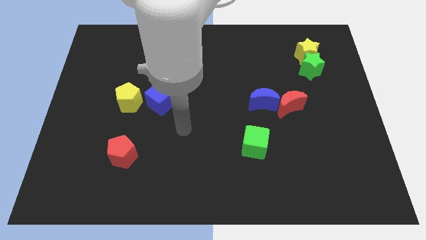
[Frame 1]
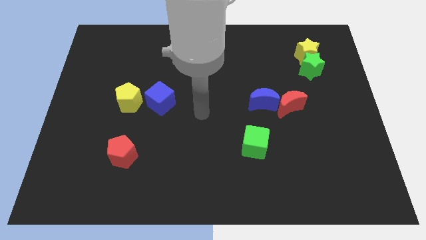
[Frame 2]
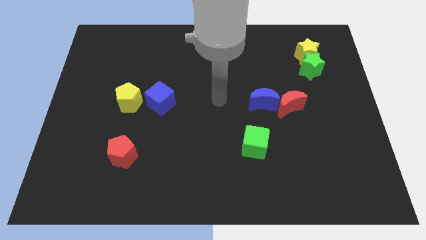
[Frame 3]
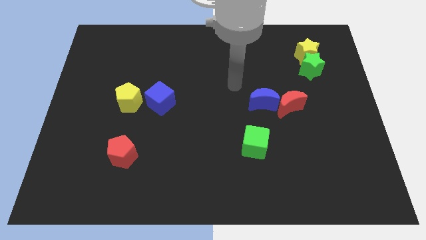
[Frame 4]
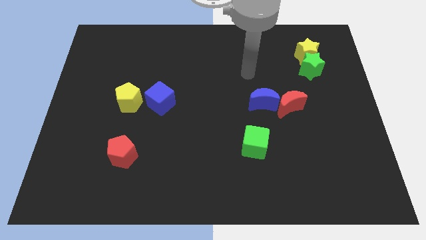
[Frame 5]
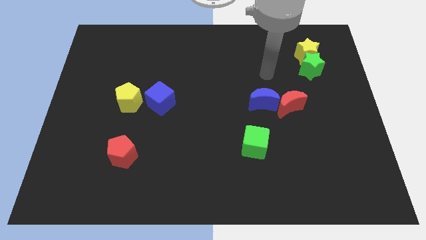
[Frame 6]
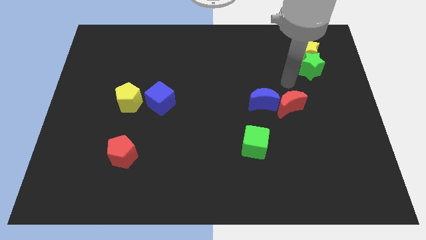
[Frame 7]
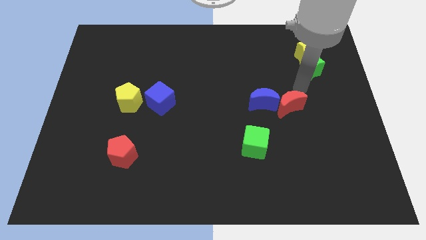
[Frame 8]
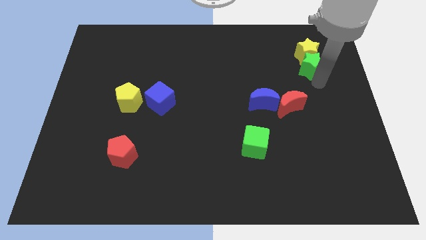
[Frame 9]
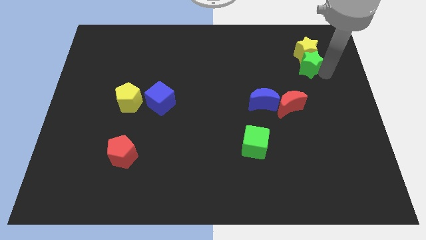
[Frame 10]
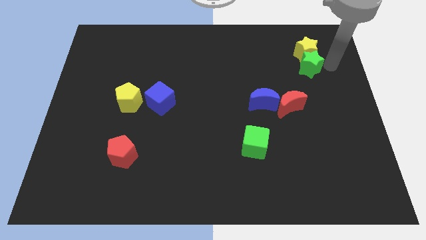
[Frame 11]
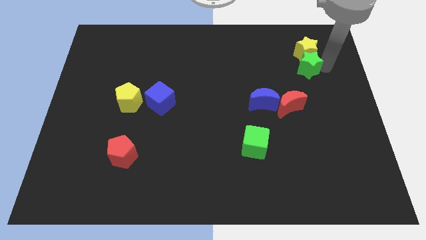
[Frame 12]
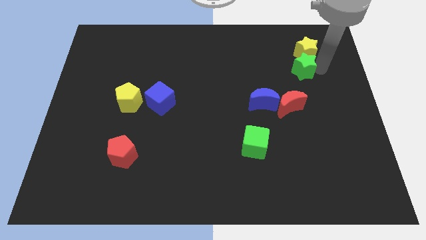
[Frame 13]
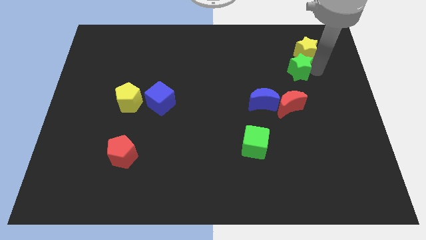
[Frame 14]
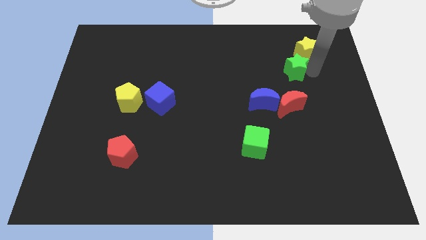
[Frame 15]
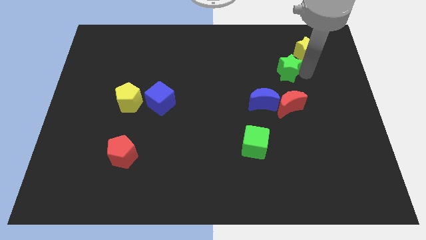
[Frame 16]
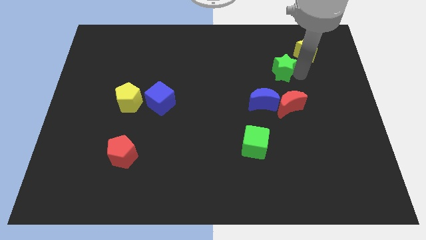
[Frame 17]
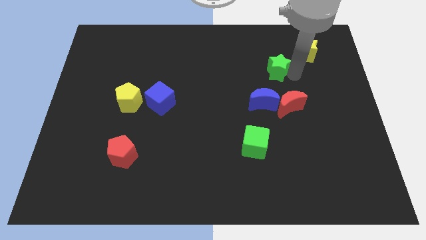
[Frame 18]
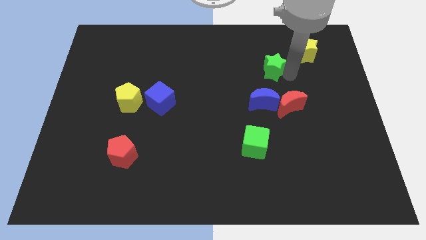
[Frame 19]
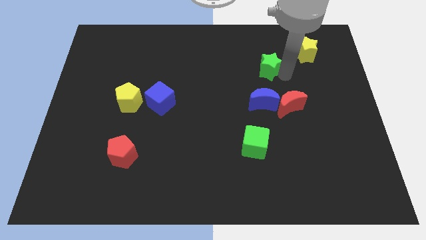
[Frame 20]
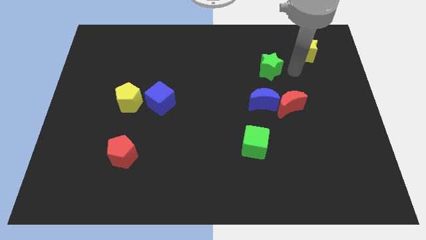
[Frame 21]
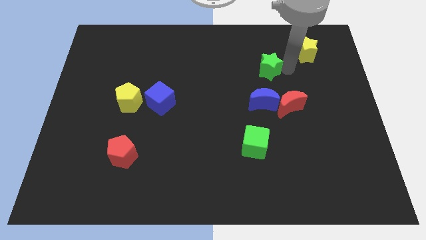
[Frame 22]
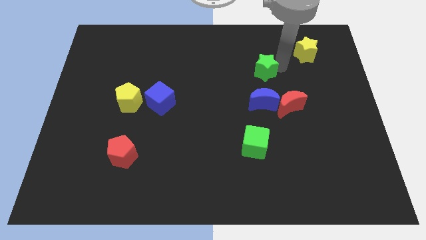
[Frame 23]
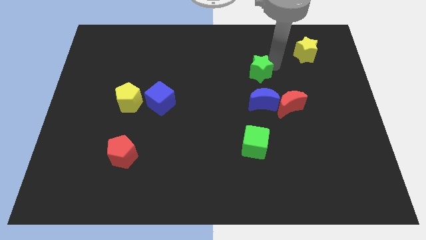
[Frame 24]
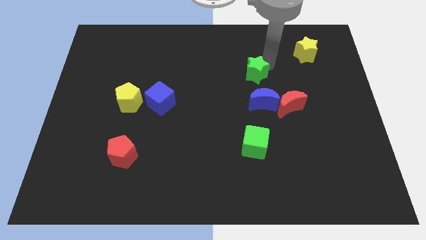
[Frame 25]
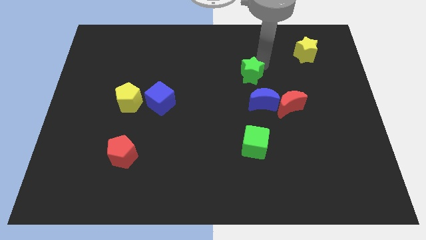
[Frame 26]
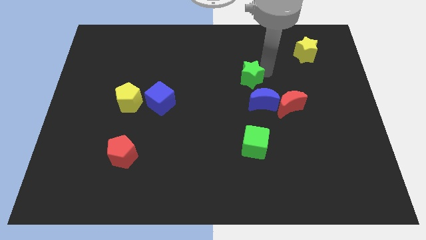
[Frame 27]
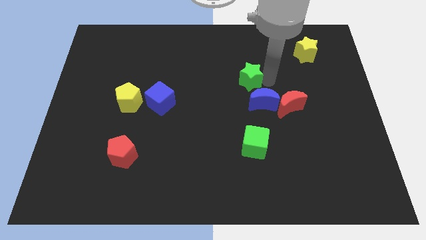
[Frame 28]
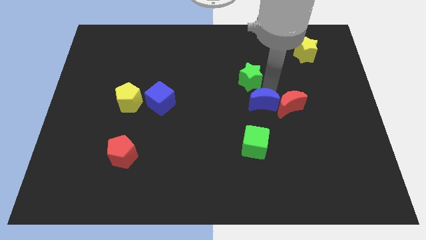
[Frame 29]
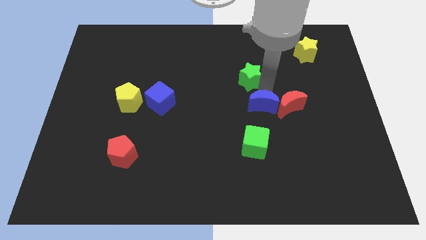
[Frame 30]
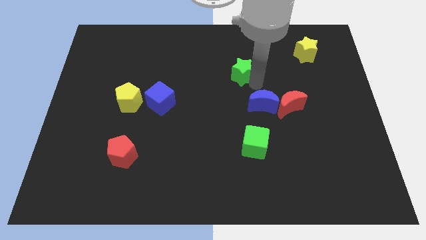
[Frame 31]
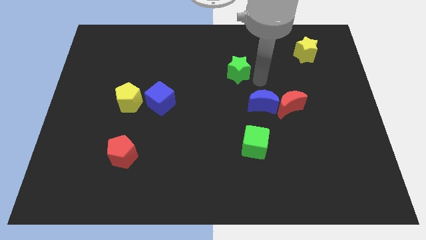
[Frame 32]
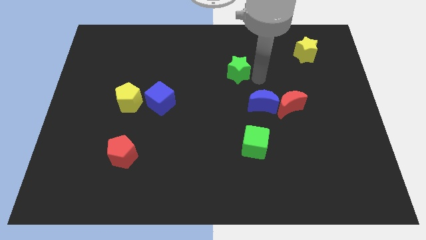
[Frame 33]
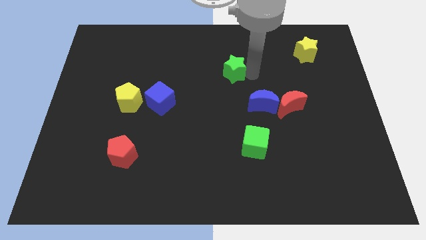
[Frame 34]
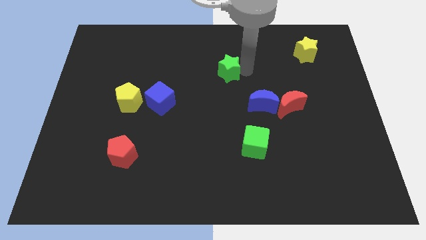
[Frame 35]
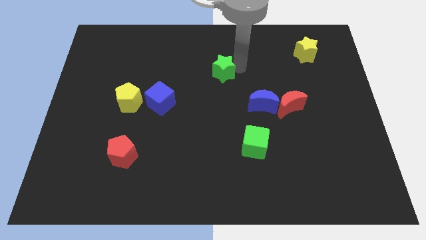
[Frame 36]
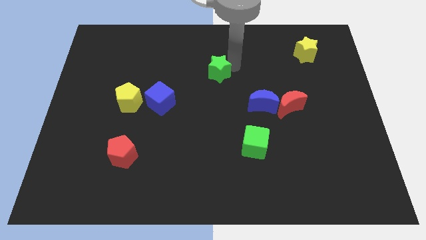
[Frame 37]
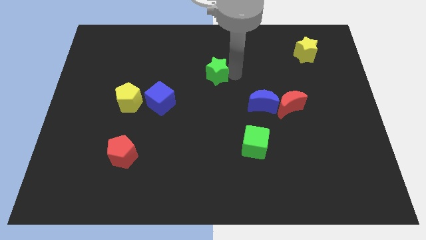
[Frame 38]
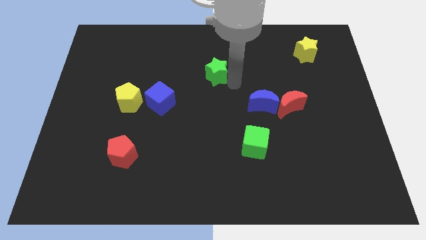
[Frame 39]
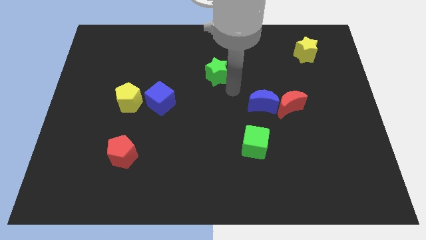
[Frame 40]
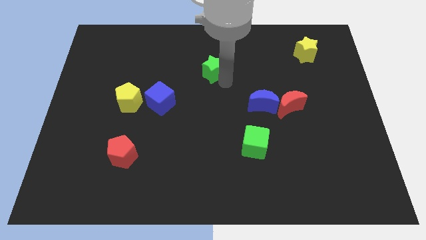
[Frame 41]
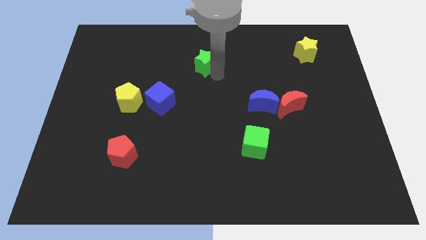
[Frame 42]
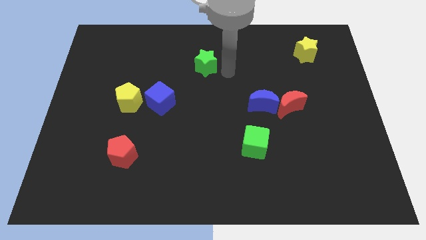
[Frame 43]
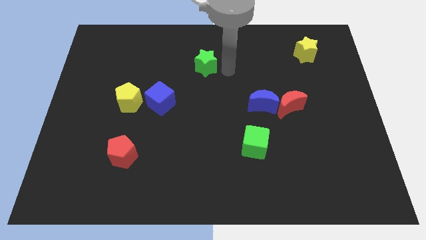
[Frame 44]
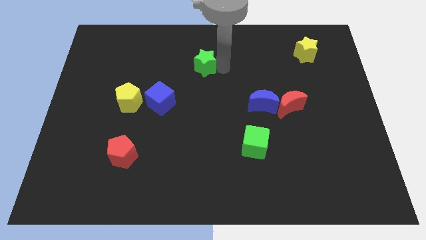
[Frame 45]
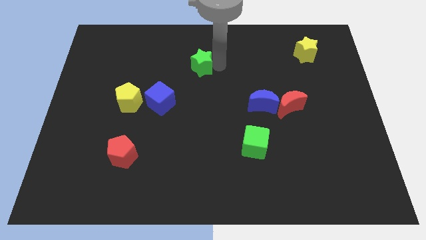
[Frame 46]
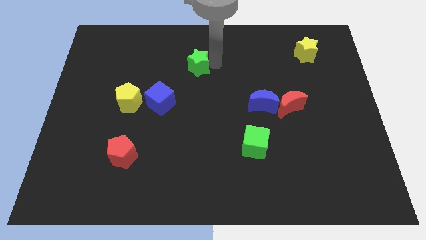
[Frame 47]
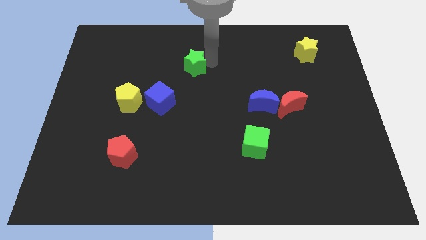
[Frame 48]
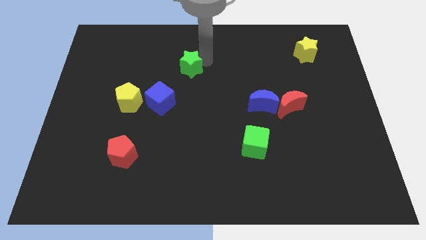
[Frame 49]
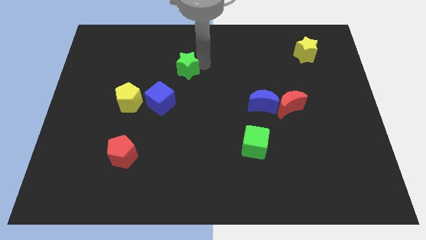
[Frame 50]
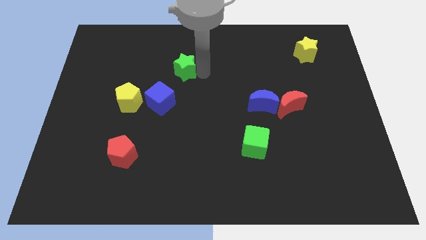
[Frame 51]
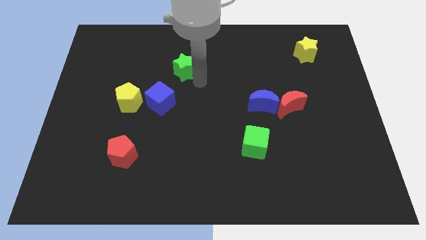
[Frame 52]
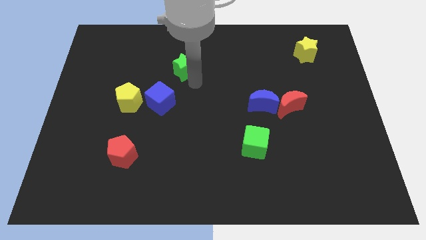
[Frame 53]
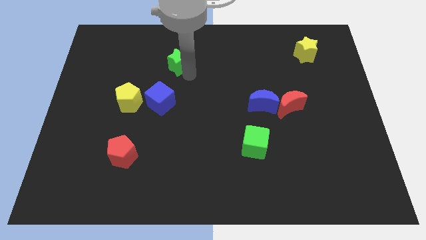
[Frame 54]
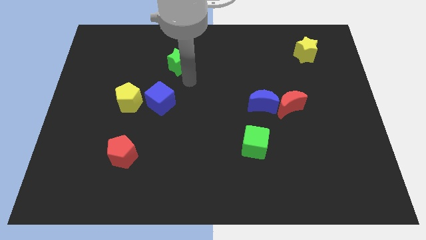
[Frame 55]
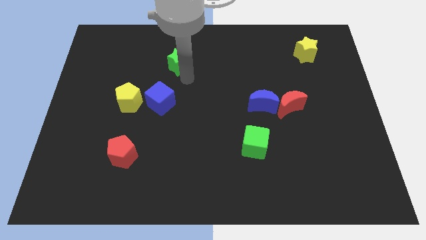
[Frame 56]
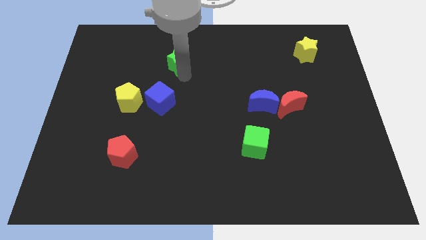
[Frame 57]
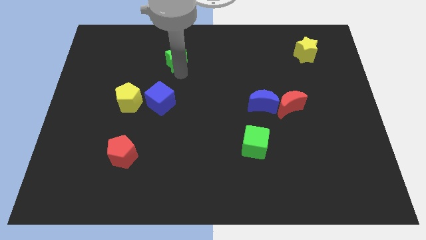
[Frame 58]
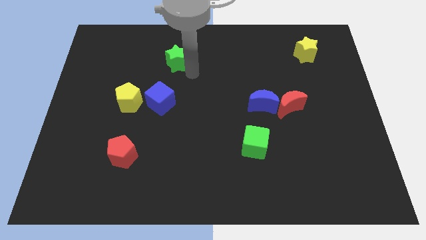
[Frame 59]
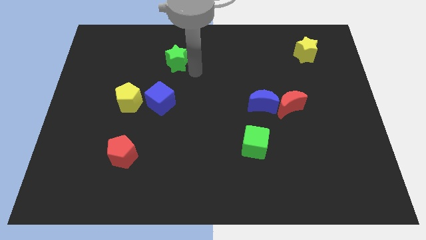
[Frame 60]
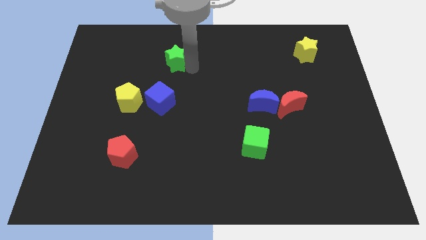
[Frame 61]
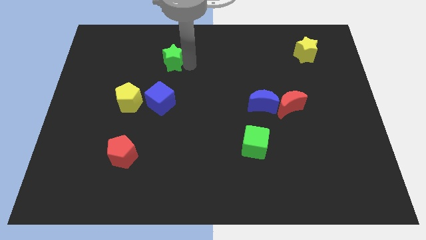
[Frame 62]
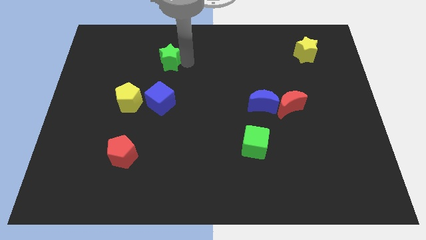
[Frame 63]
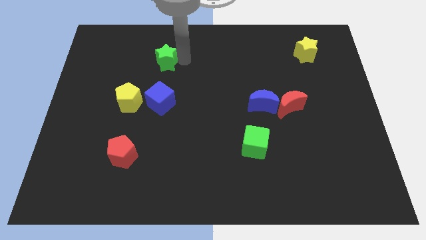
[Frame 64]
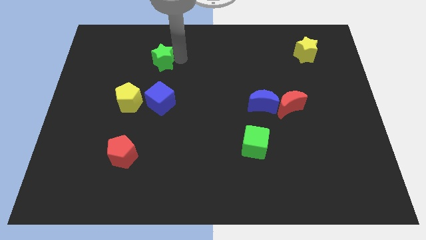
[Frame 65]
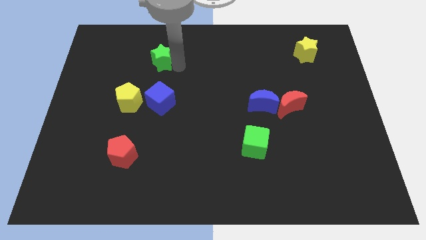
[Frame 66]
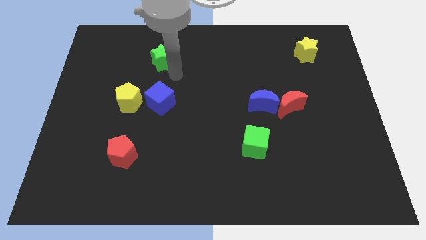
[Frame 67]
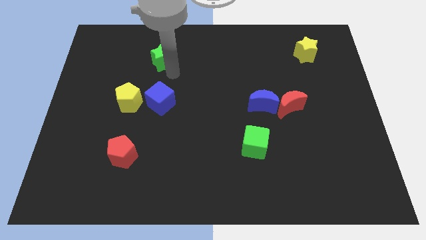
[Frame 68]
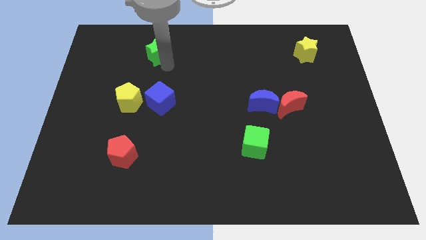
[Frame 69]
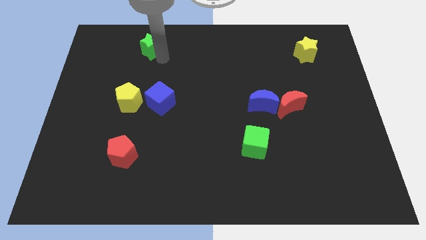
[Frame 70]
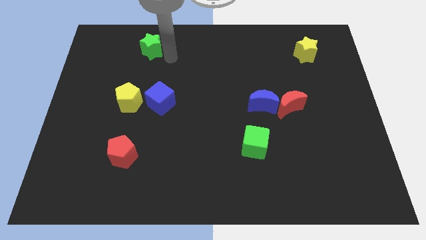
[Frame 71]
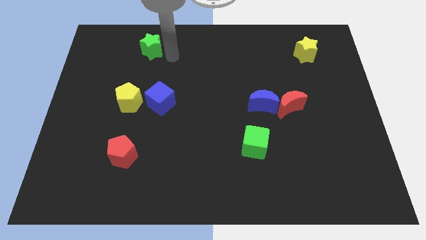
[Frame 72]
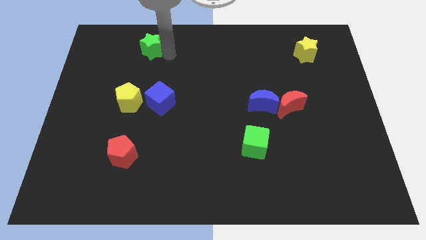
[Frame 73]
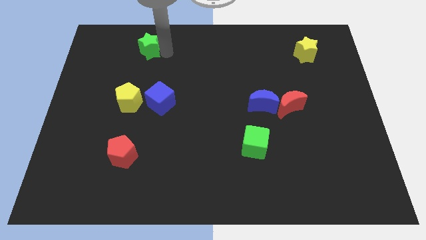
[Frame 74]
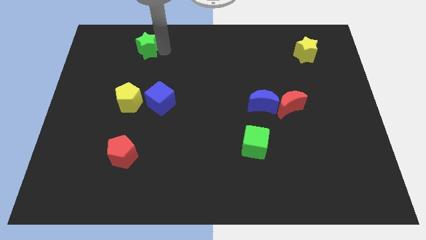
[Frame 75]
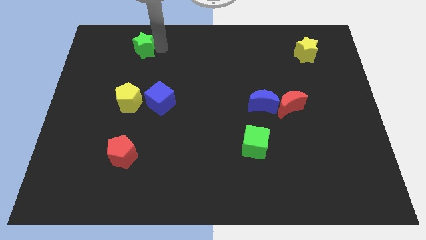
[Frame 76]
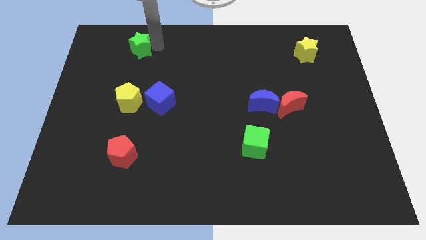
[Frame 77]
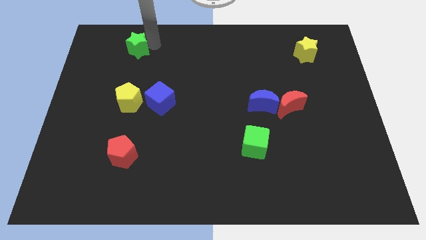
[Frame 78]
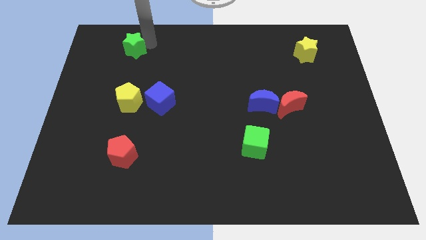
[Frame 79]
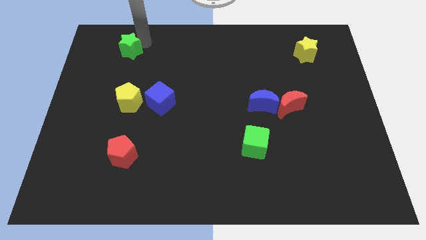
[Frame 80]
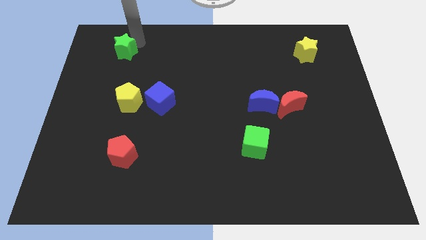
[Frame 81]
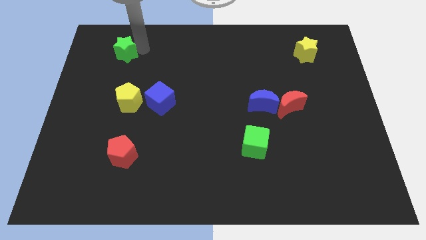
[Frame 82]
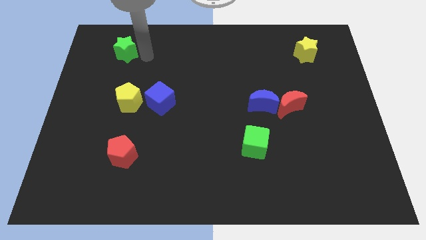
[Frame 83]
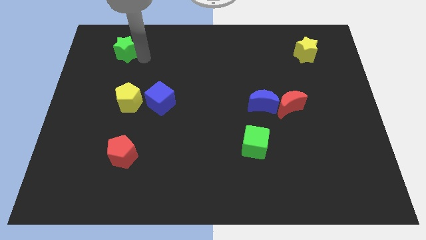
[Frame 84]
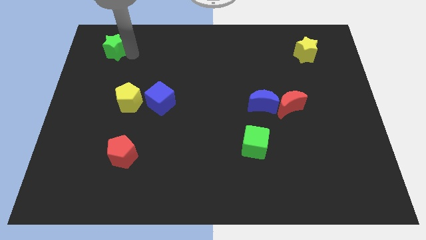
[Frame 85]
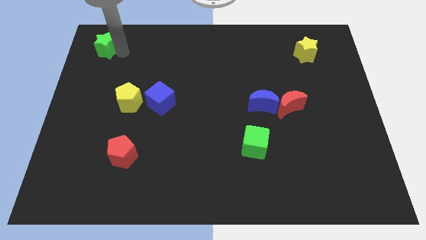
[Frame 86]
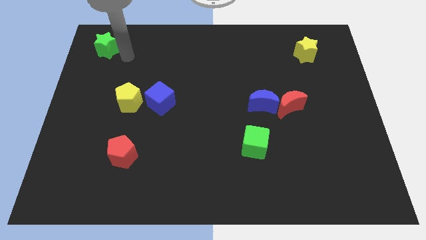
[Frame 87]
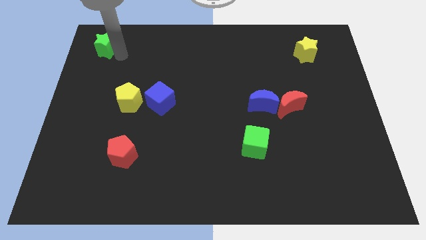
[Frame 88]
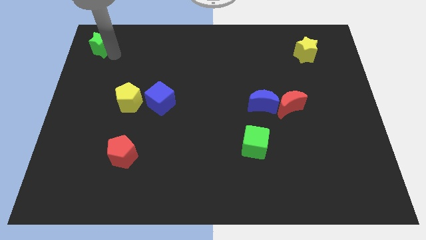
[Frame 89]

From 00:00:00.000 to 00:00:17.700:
put the green star to the top left
